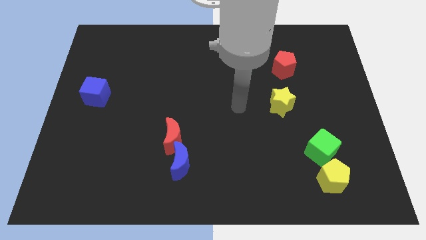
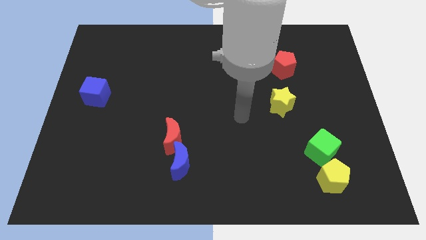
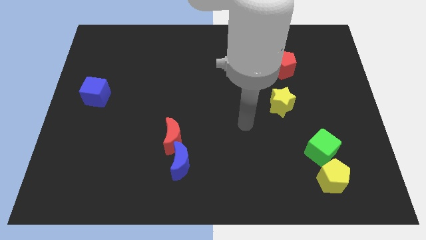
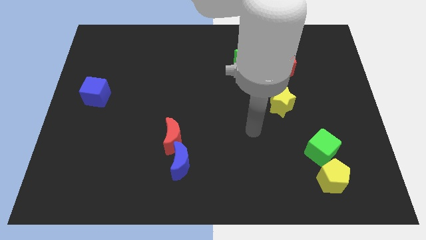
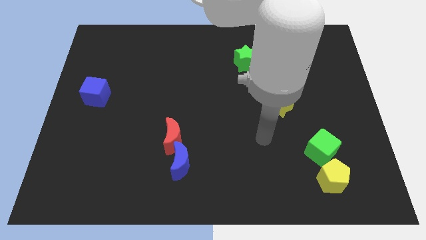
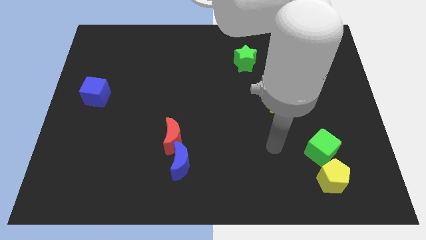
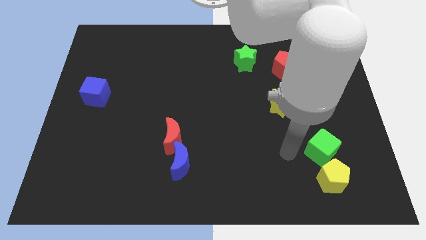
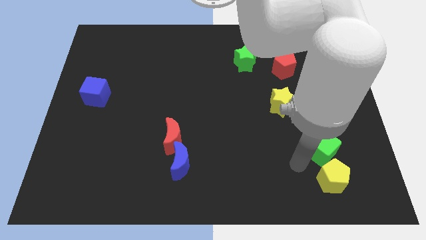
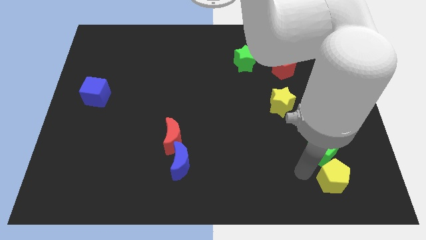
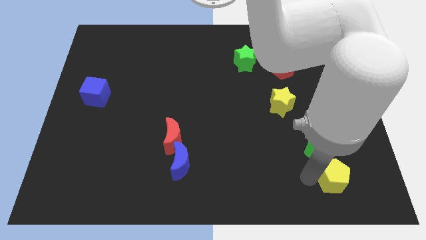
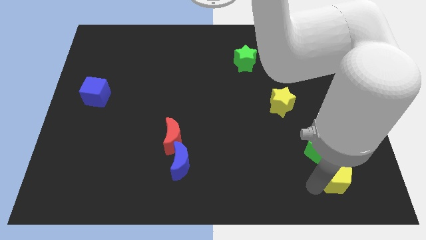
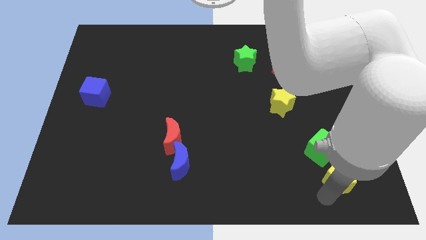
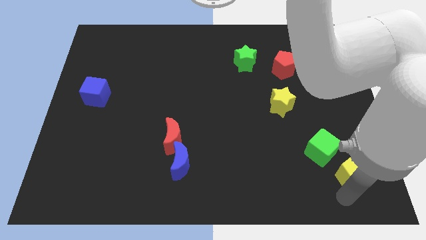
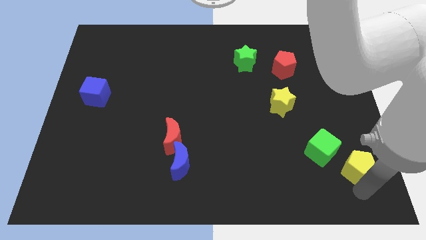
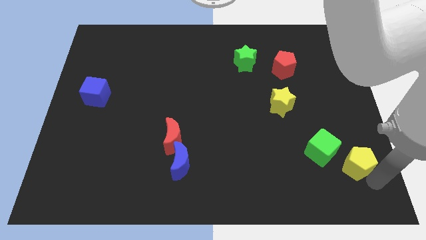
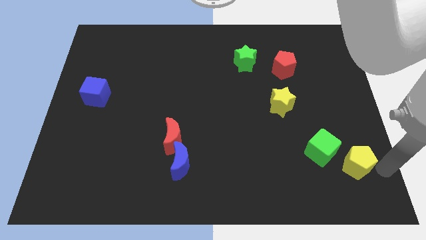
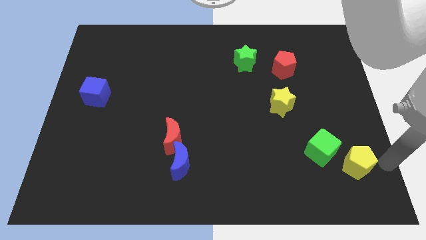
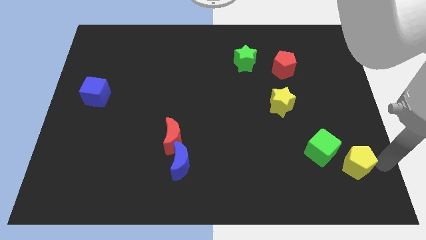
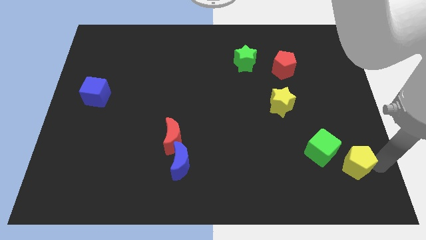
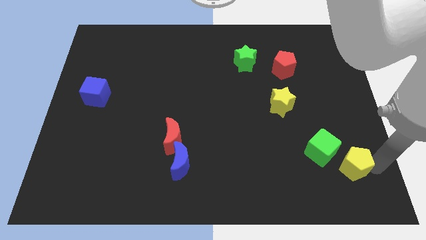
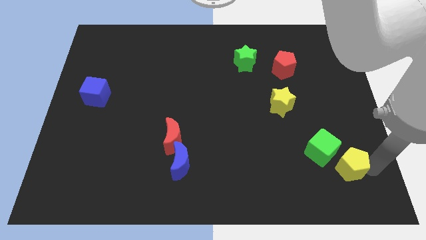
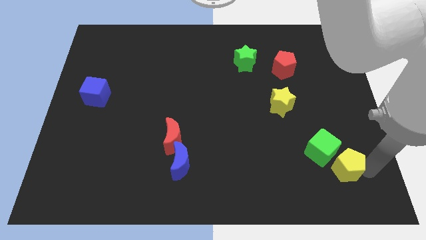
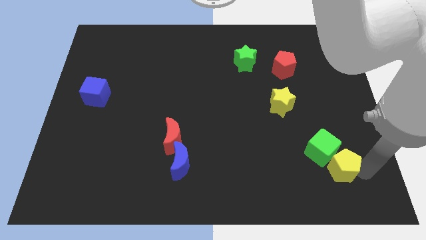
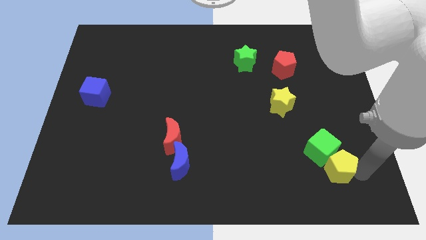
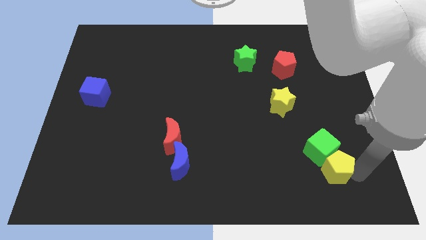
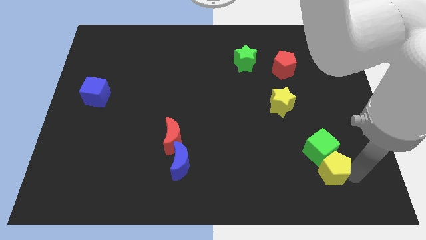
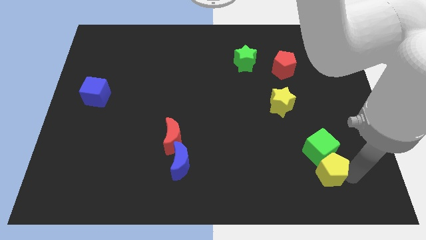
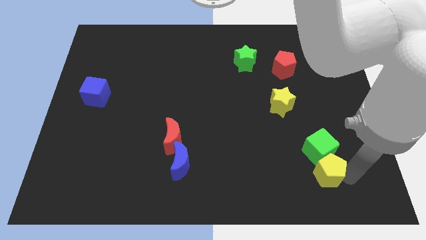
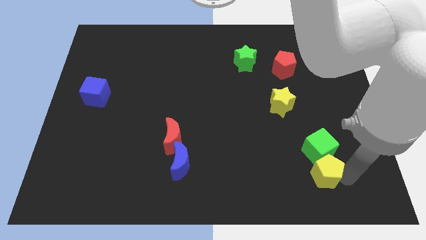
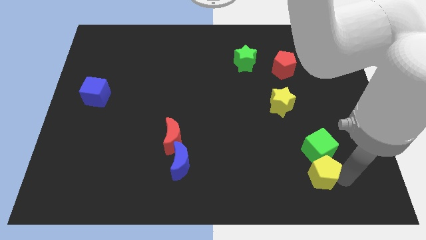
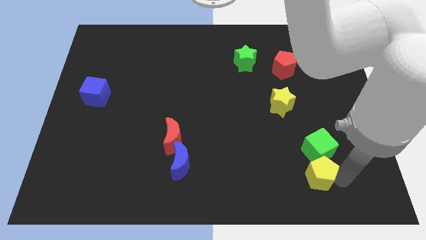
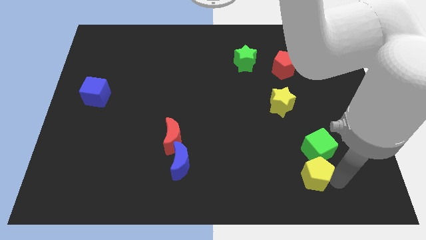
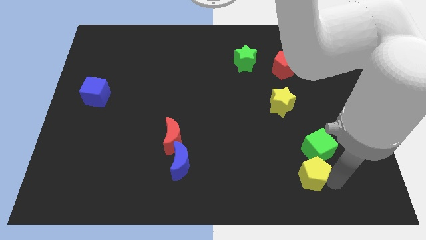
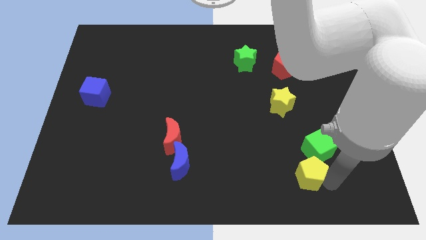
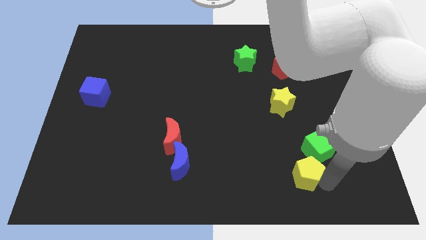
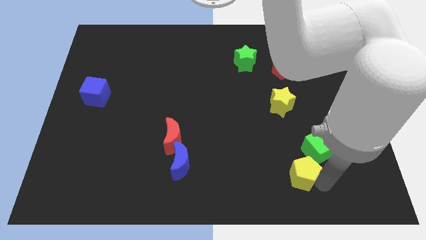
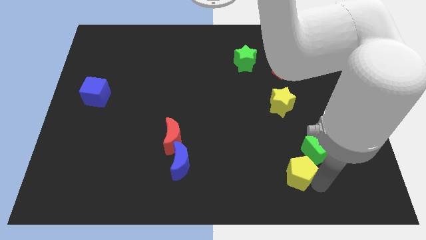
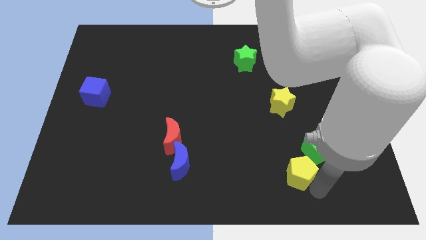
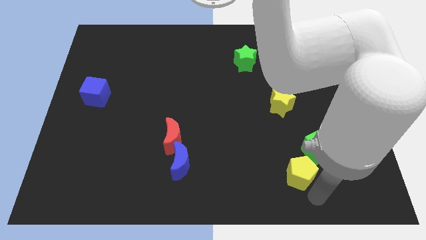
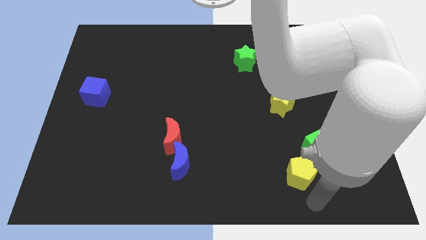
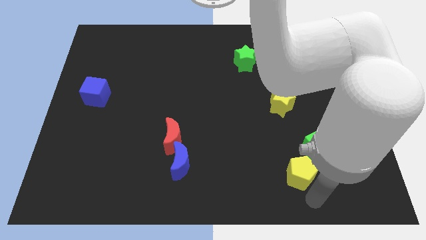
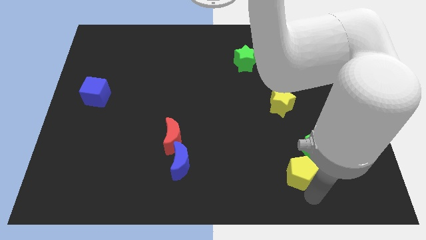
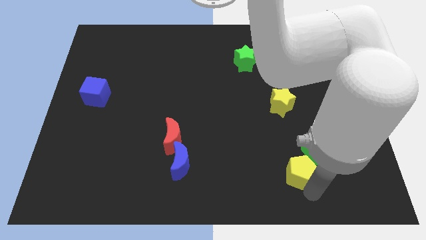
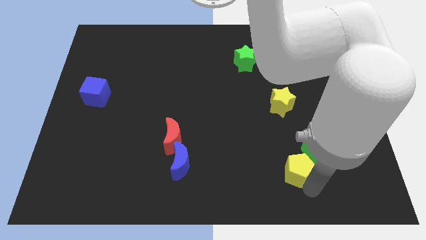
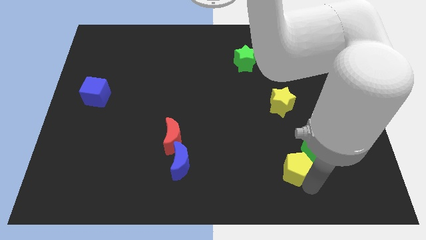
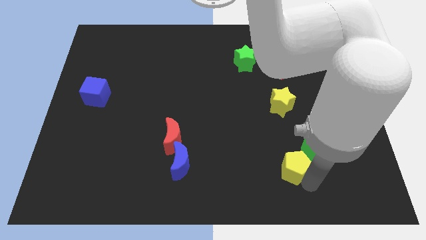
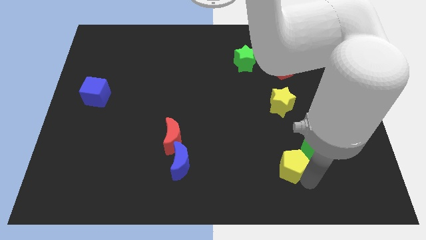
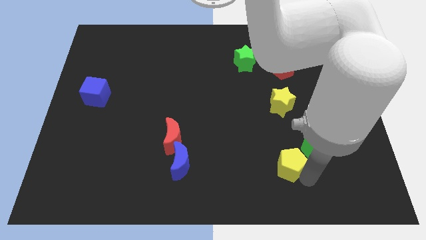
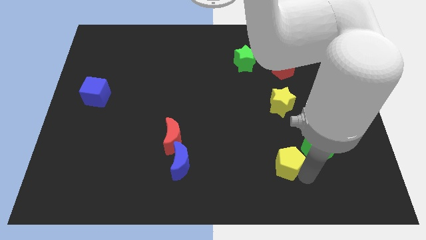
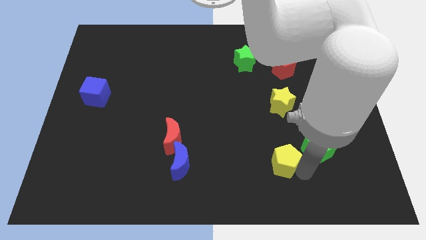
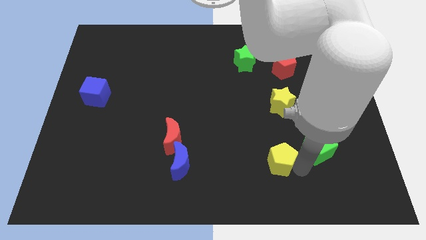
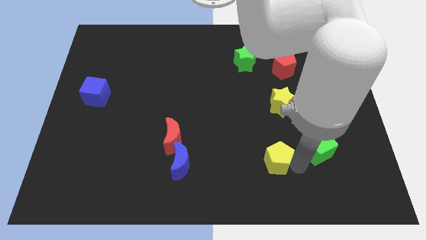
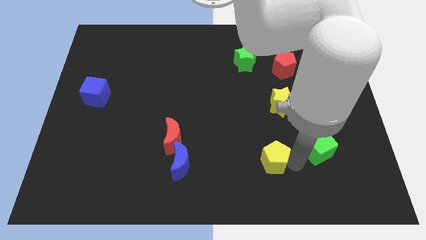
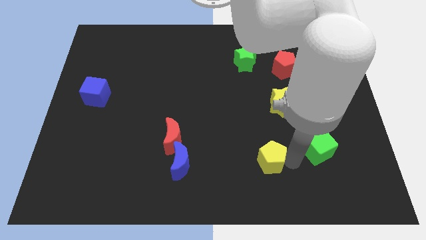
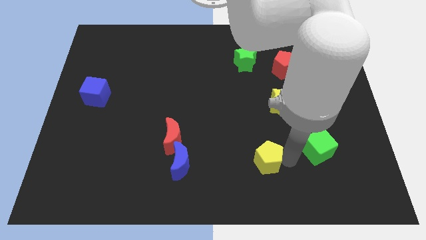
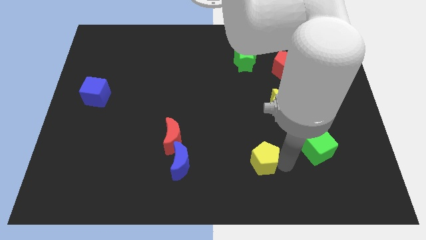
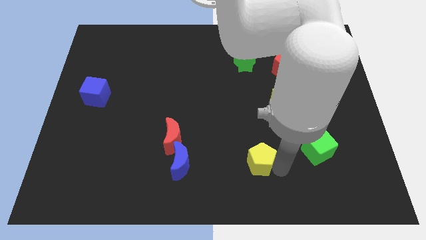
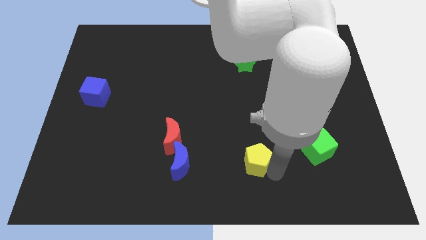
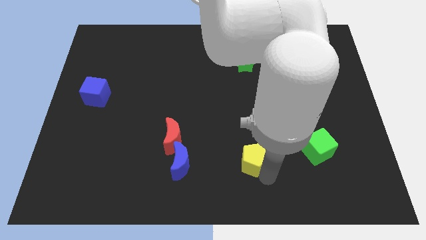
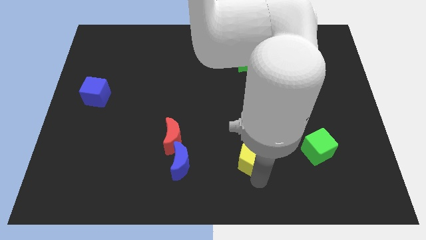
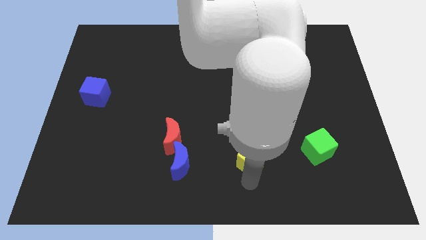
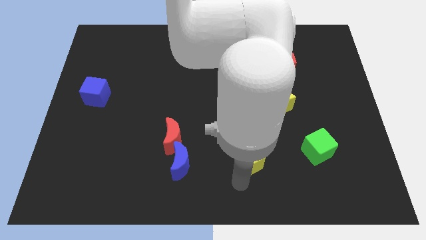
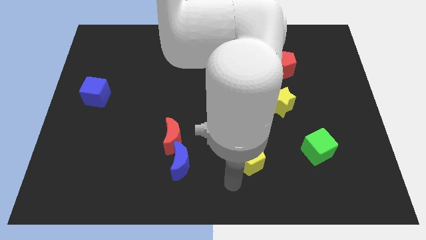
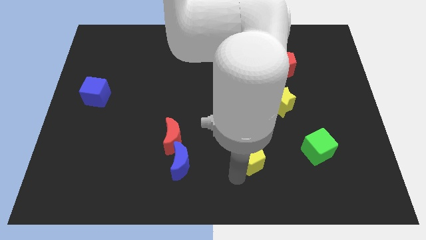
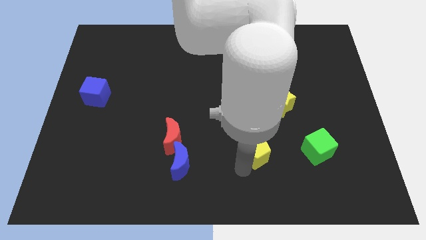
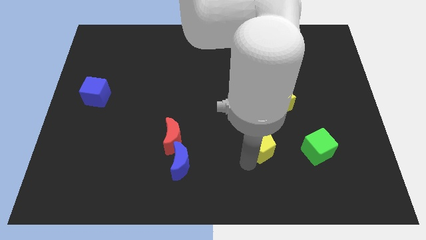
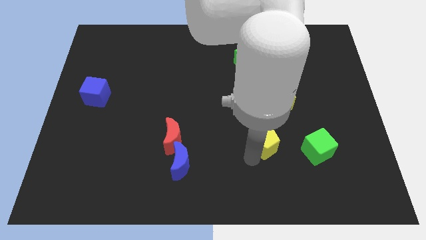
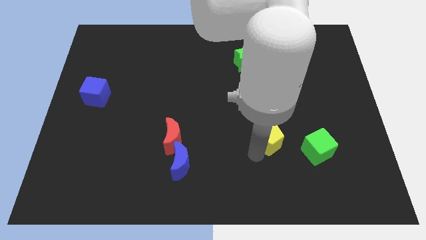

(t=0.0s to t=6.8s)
push the yellow pentagon diagonally down and to the left of the yellow star

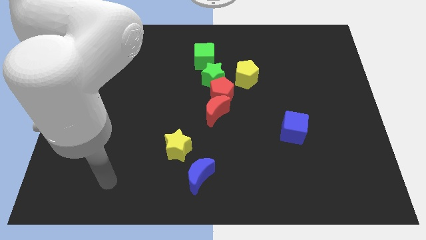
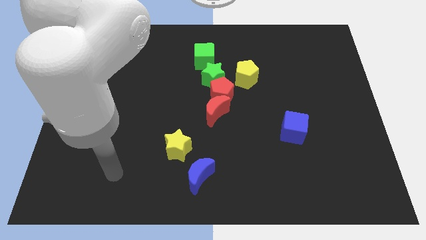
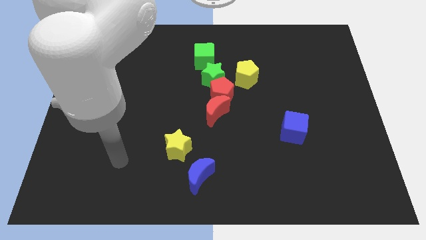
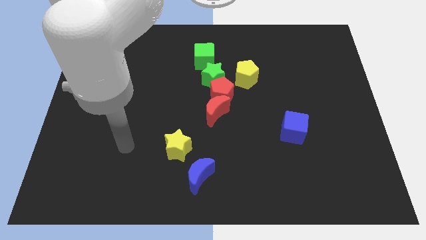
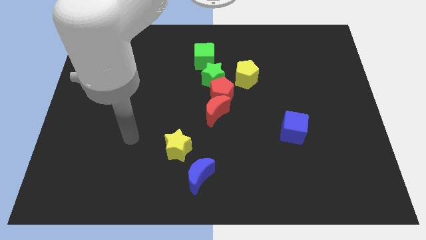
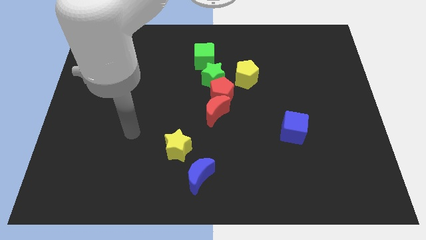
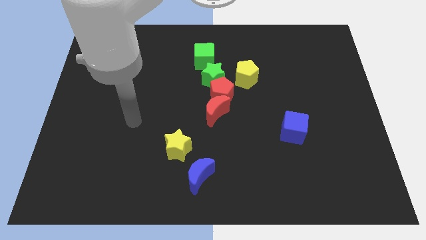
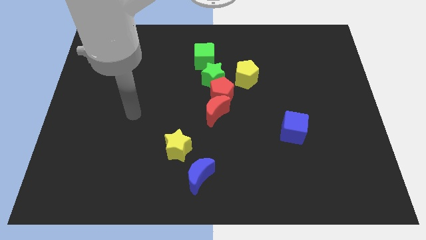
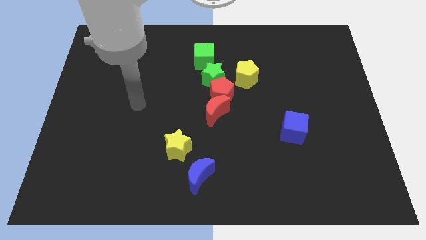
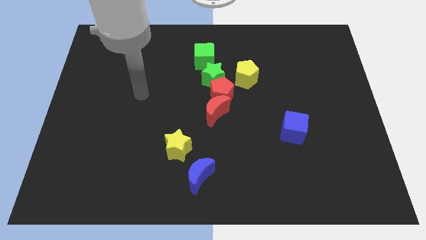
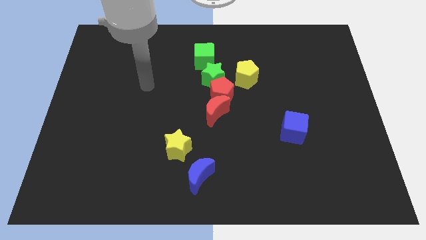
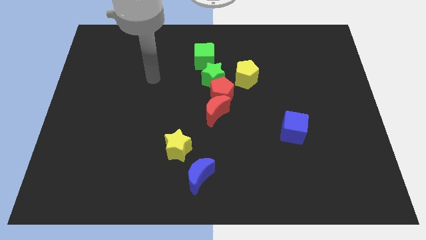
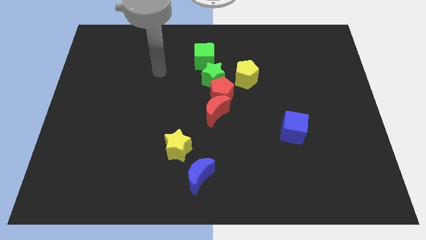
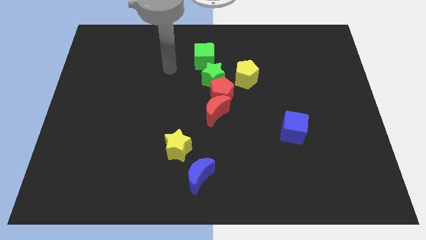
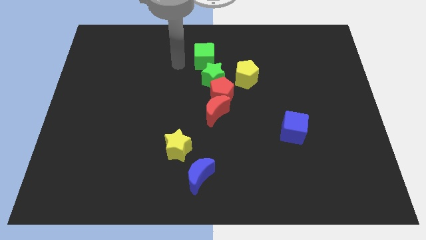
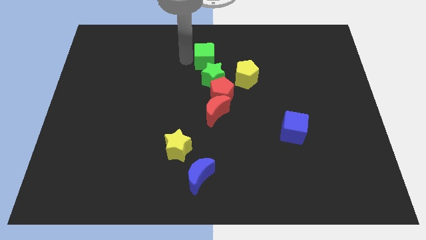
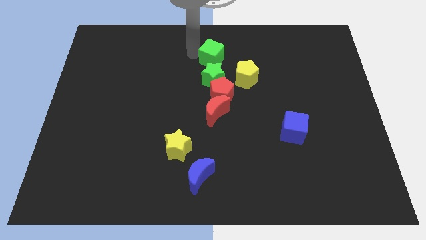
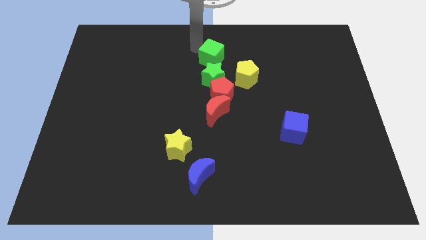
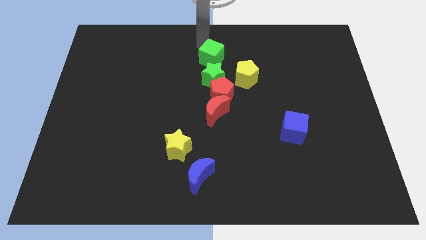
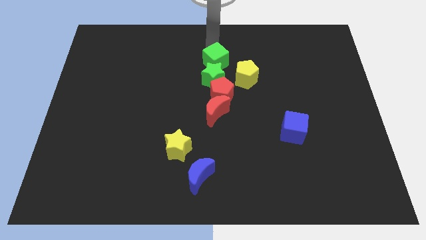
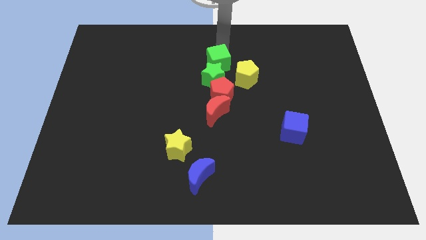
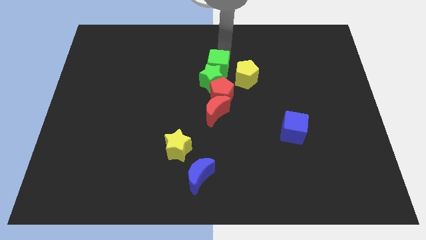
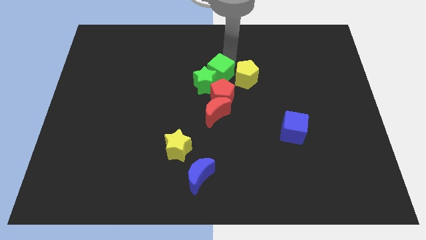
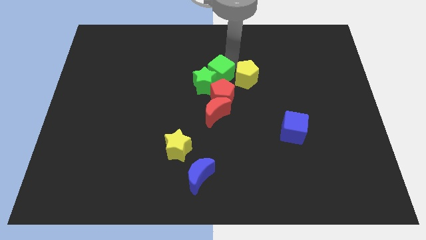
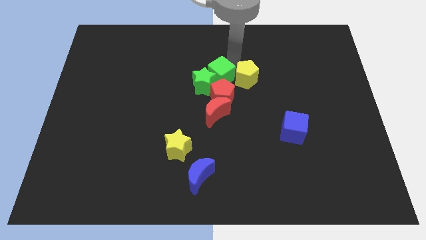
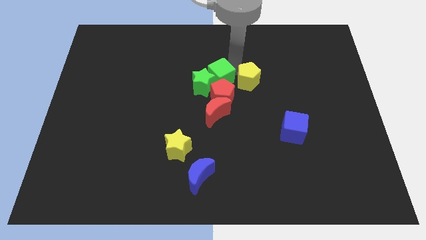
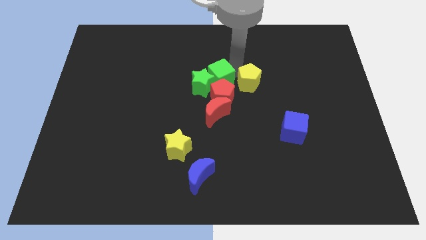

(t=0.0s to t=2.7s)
move the yellow pentagon to the right side of the red pentagon
